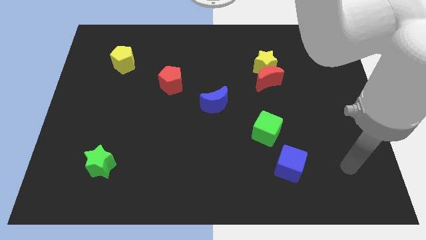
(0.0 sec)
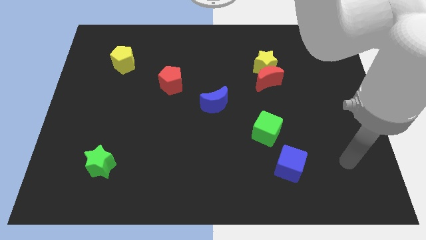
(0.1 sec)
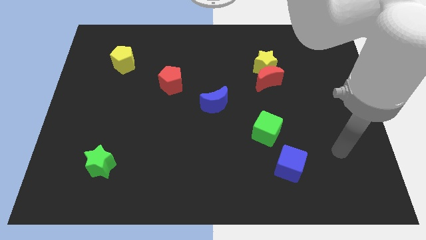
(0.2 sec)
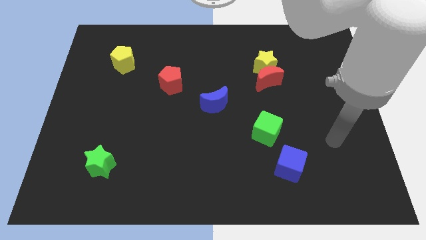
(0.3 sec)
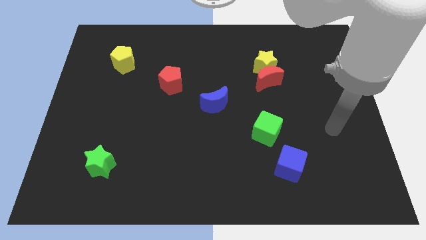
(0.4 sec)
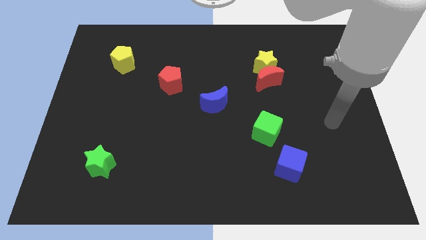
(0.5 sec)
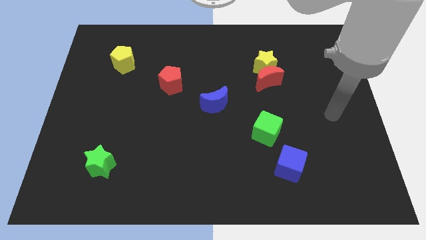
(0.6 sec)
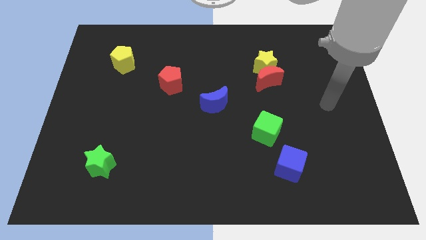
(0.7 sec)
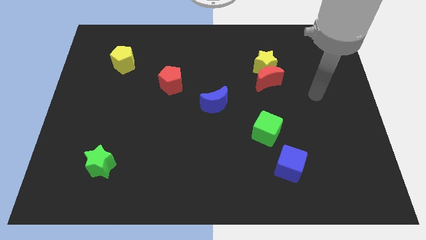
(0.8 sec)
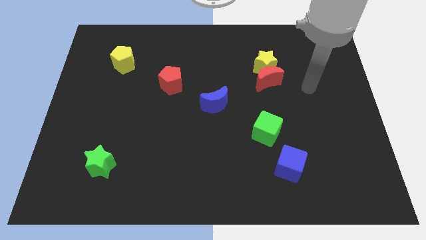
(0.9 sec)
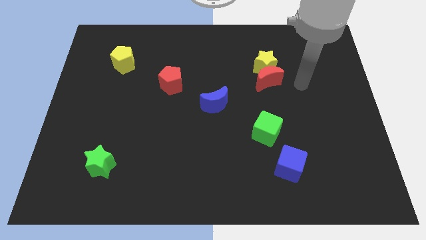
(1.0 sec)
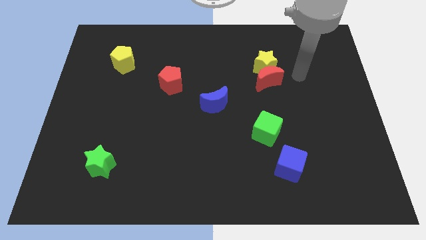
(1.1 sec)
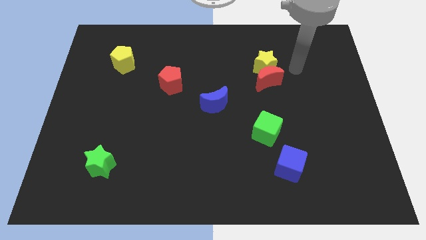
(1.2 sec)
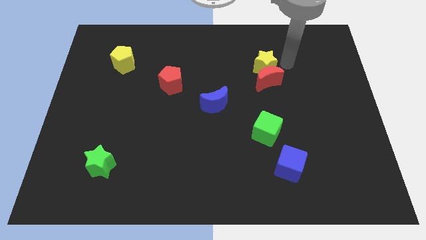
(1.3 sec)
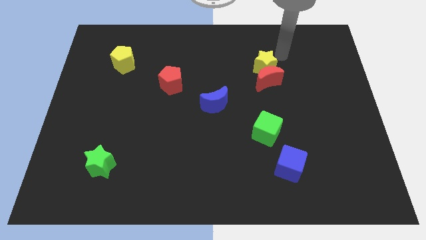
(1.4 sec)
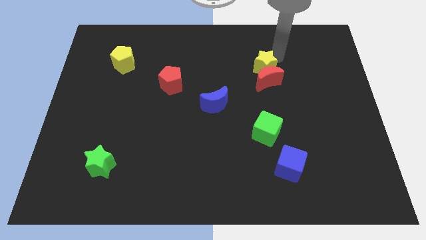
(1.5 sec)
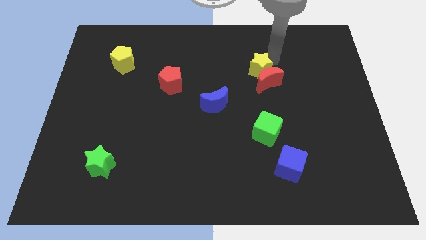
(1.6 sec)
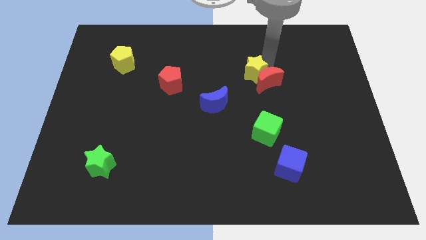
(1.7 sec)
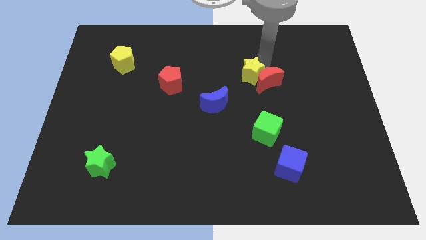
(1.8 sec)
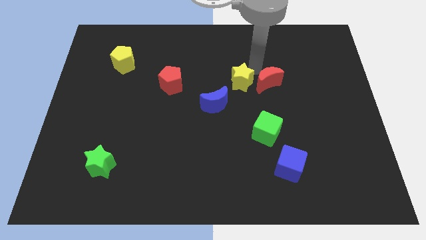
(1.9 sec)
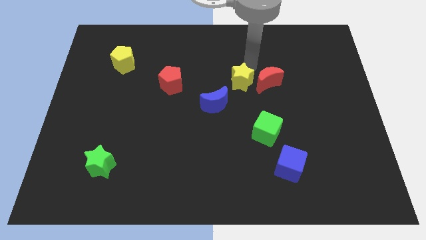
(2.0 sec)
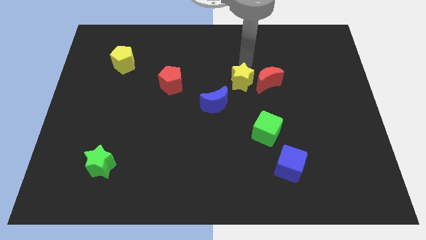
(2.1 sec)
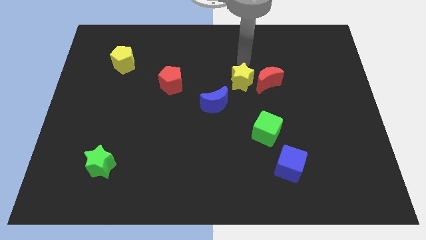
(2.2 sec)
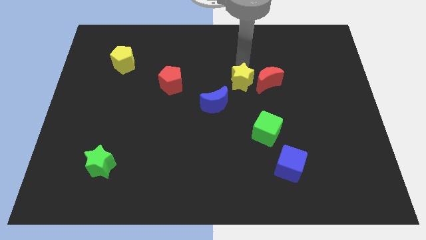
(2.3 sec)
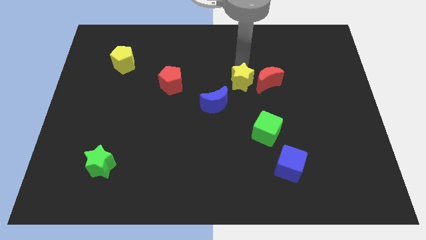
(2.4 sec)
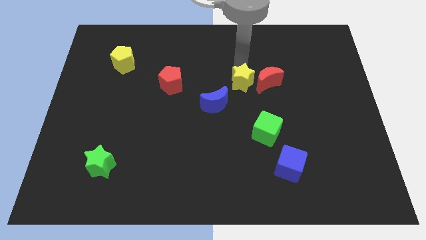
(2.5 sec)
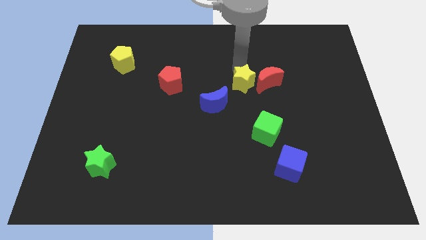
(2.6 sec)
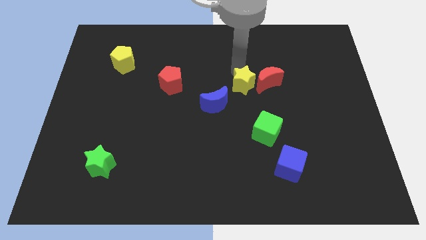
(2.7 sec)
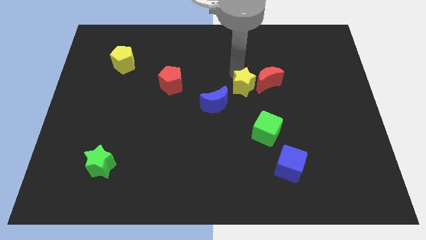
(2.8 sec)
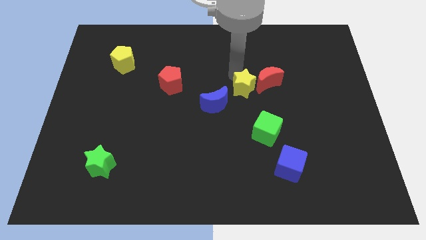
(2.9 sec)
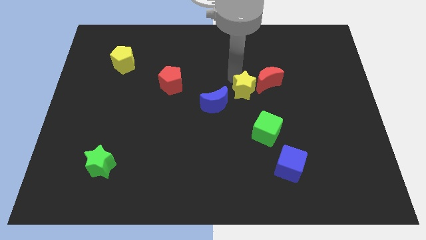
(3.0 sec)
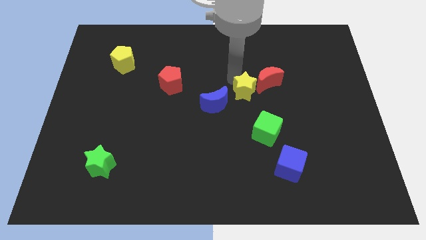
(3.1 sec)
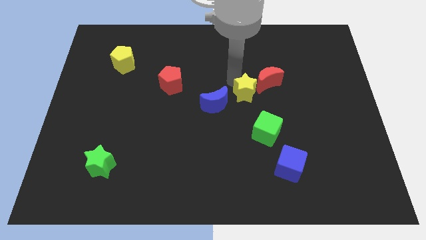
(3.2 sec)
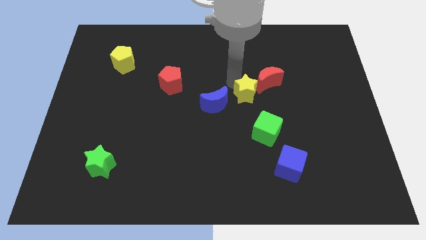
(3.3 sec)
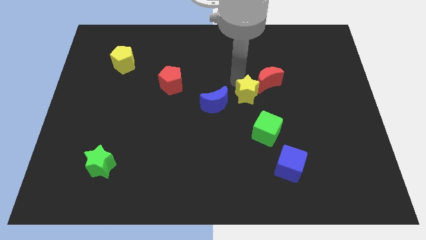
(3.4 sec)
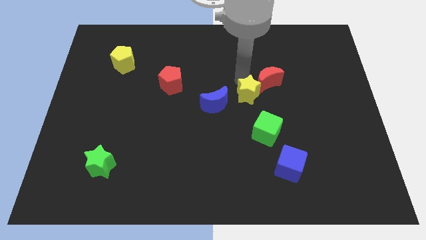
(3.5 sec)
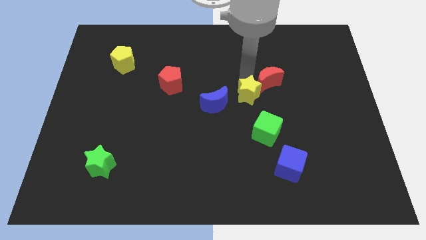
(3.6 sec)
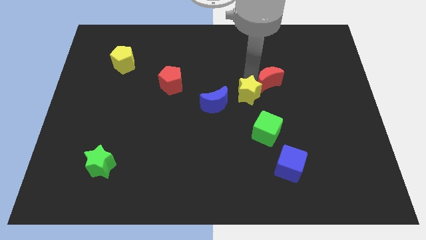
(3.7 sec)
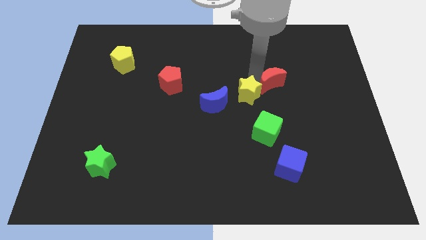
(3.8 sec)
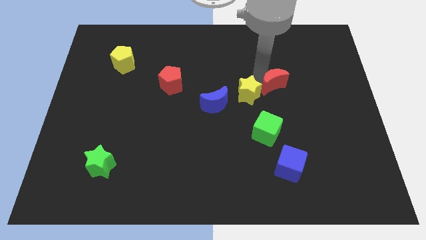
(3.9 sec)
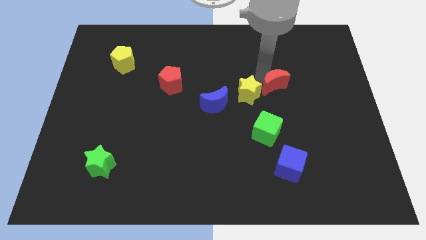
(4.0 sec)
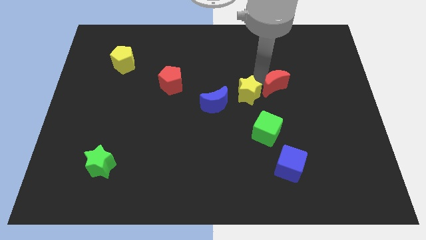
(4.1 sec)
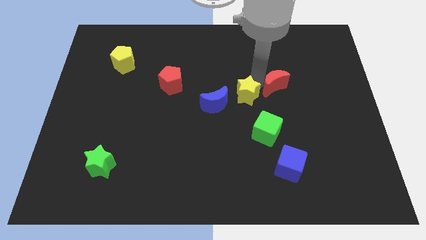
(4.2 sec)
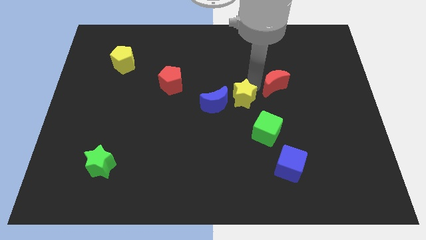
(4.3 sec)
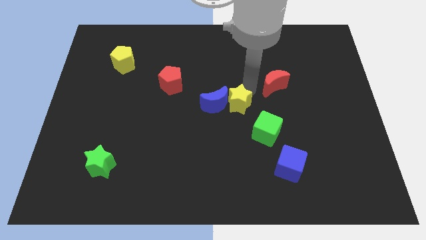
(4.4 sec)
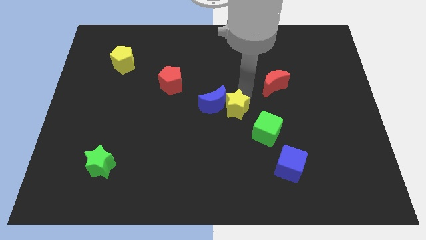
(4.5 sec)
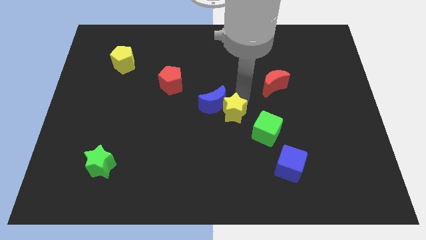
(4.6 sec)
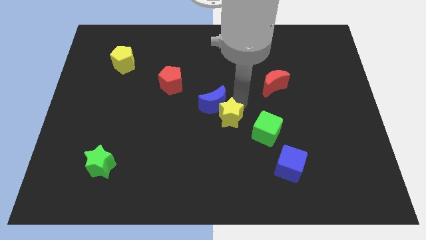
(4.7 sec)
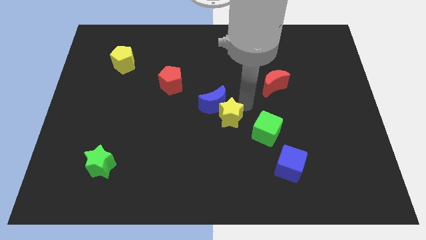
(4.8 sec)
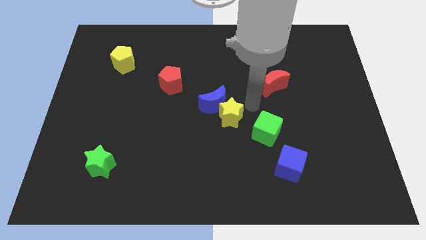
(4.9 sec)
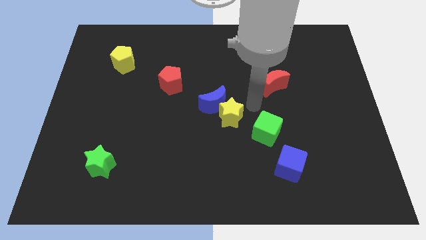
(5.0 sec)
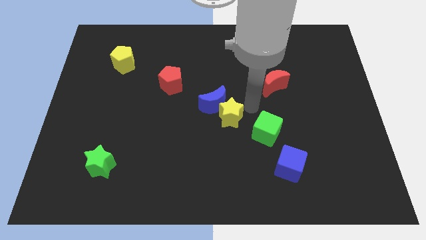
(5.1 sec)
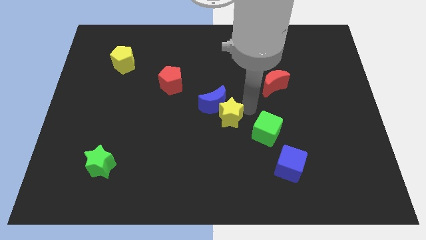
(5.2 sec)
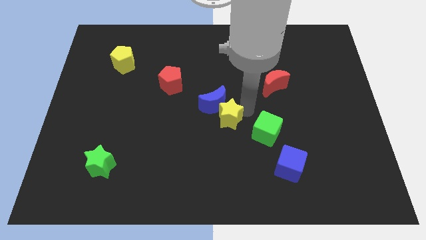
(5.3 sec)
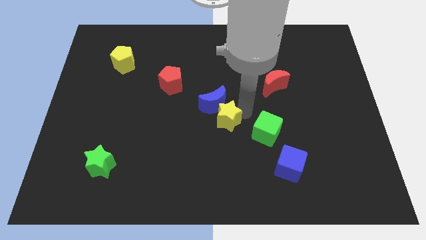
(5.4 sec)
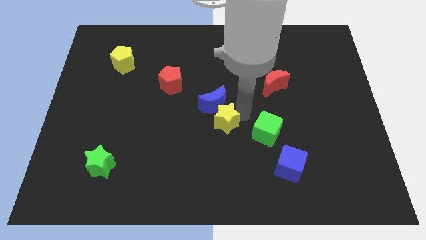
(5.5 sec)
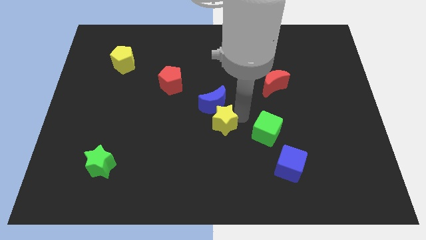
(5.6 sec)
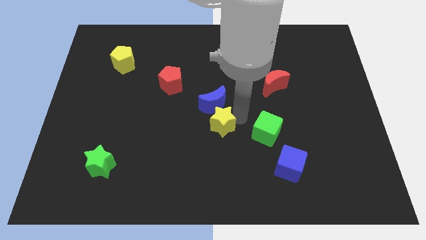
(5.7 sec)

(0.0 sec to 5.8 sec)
slide the yellow star downwards and then to the left

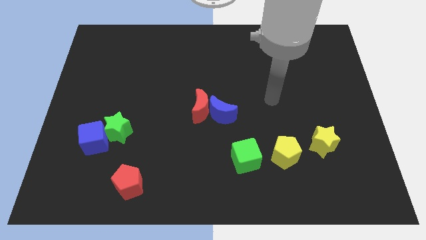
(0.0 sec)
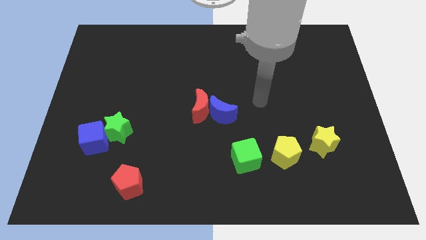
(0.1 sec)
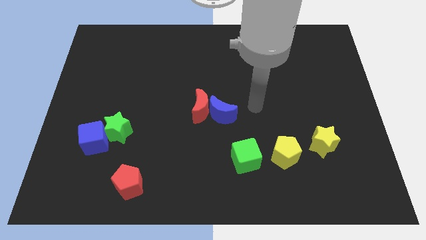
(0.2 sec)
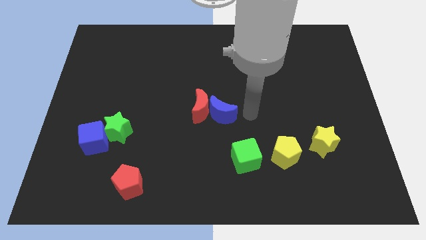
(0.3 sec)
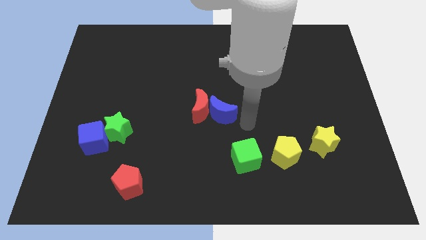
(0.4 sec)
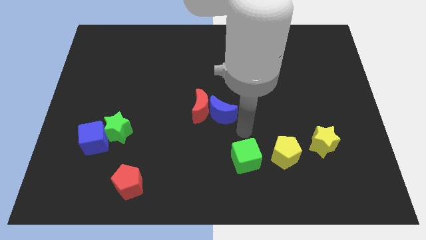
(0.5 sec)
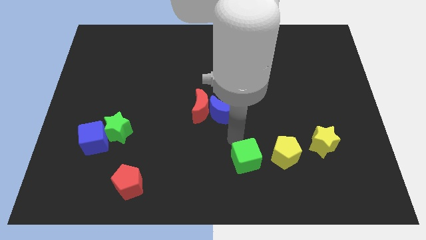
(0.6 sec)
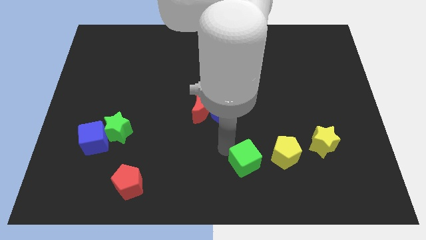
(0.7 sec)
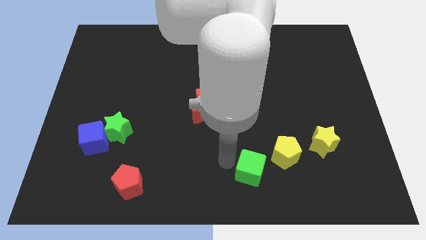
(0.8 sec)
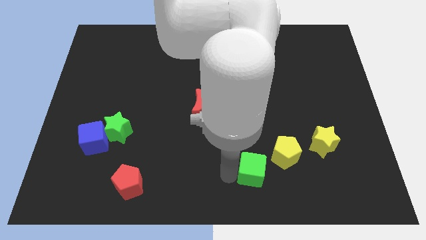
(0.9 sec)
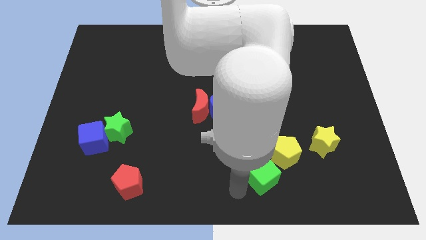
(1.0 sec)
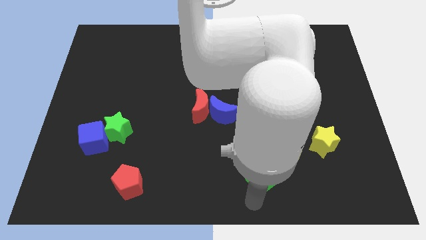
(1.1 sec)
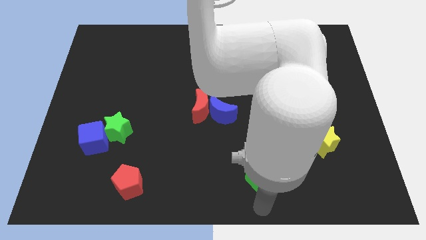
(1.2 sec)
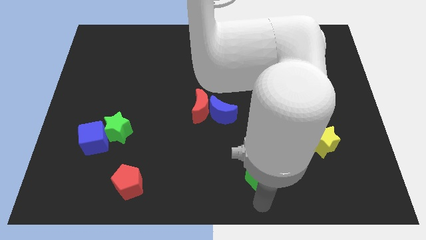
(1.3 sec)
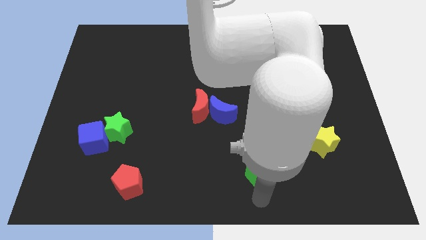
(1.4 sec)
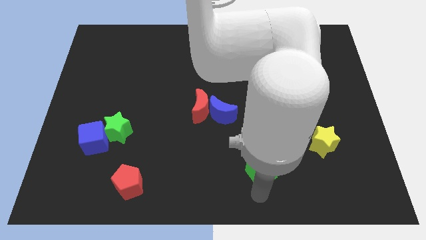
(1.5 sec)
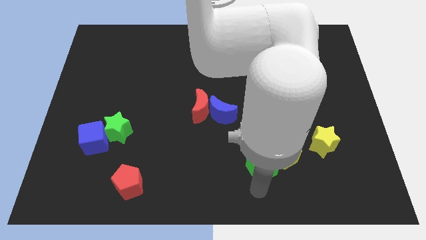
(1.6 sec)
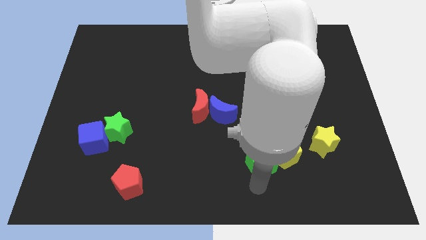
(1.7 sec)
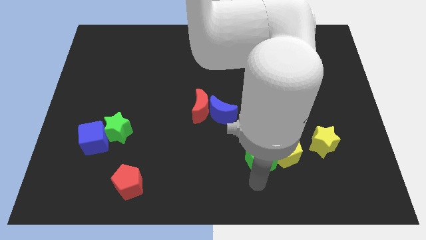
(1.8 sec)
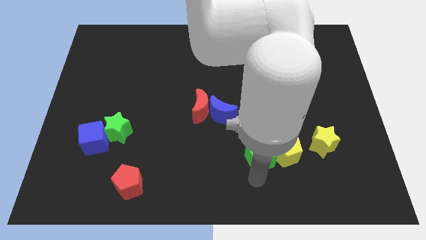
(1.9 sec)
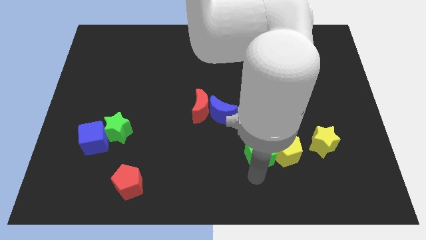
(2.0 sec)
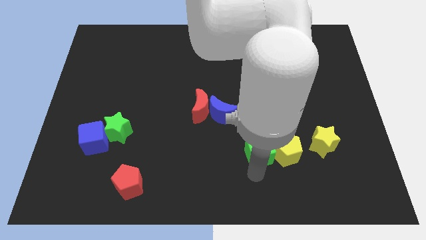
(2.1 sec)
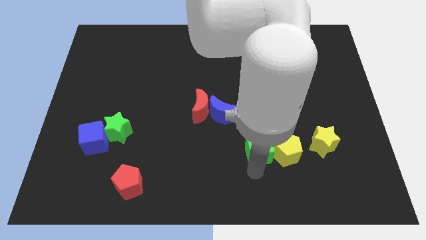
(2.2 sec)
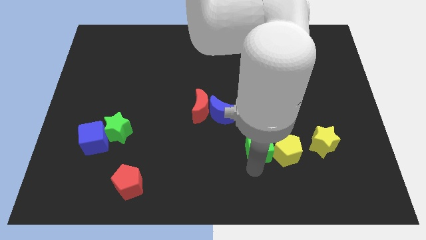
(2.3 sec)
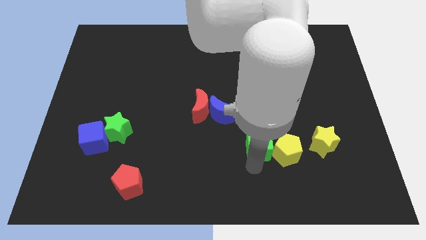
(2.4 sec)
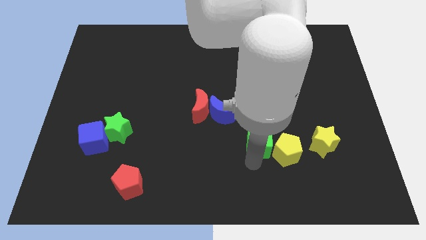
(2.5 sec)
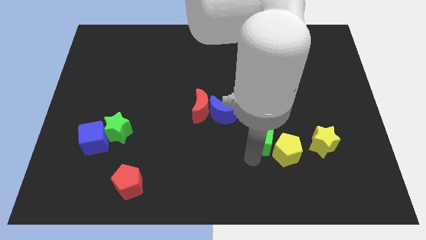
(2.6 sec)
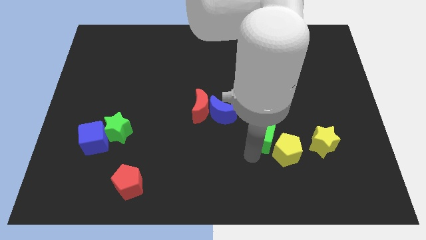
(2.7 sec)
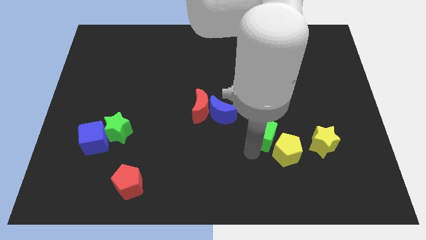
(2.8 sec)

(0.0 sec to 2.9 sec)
push the green cube upwards and then to the right somewhat
